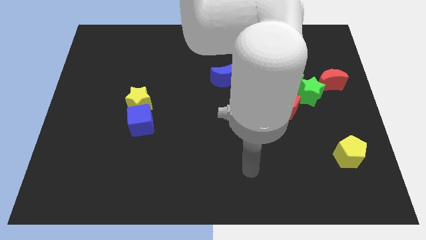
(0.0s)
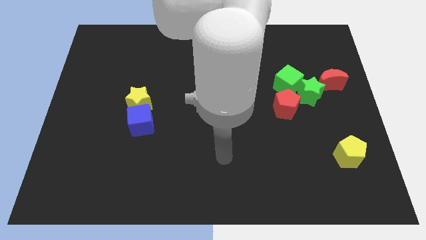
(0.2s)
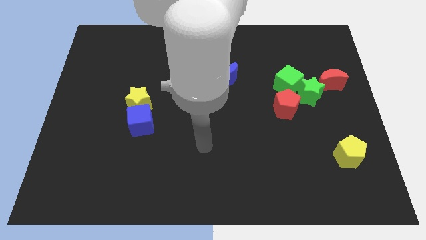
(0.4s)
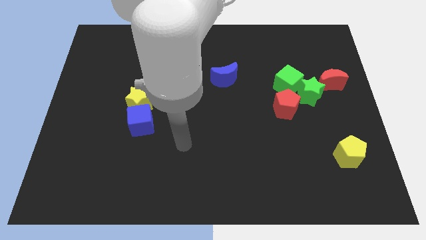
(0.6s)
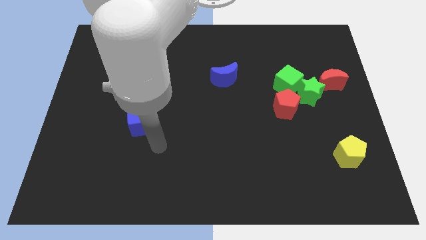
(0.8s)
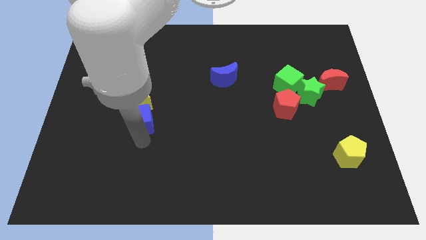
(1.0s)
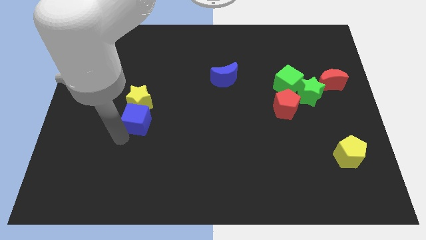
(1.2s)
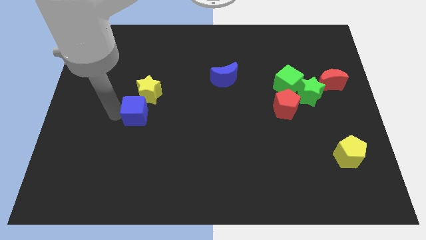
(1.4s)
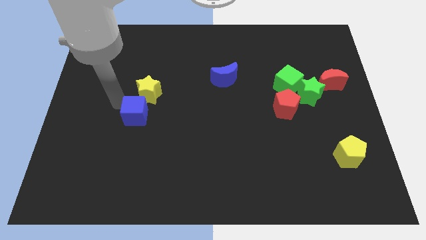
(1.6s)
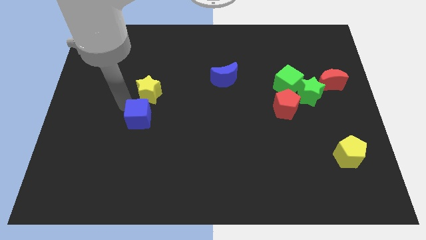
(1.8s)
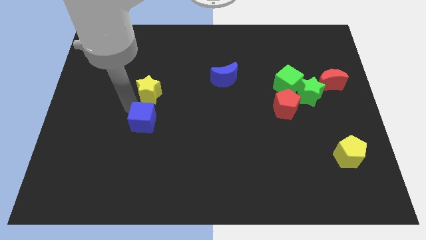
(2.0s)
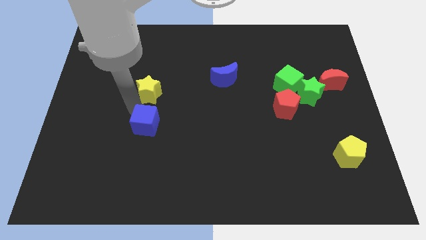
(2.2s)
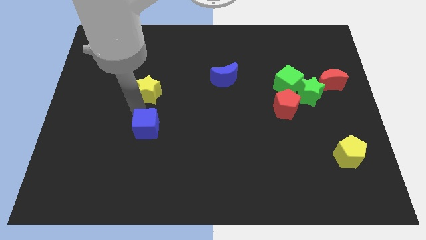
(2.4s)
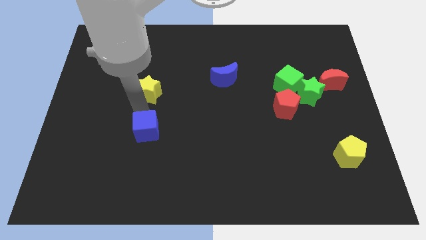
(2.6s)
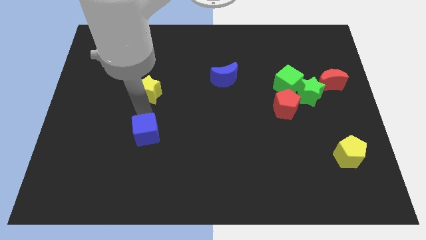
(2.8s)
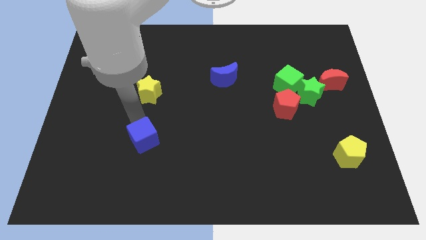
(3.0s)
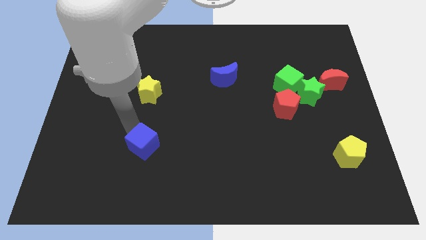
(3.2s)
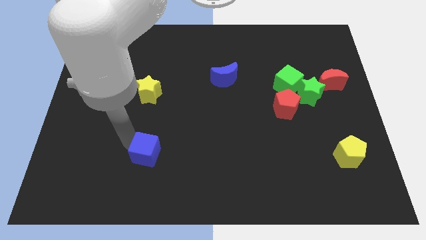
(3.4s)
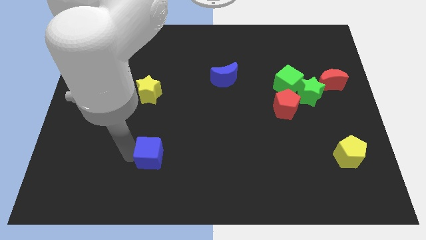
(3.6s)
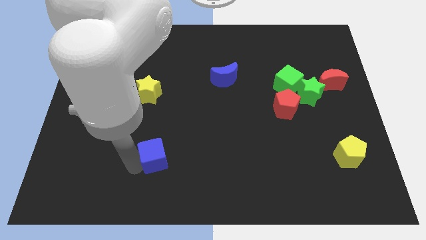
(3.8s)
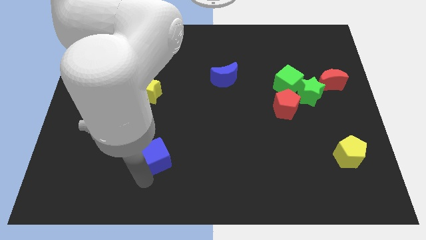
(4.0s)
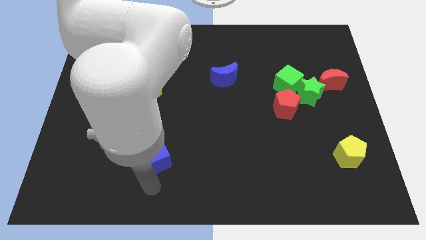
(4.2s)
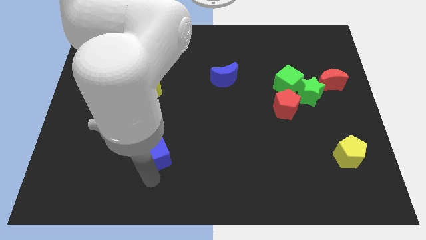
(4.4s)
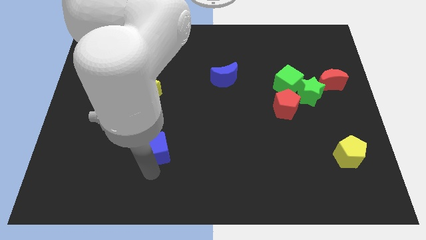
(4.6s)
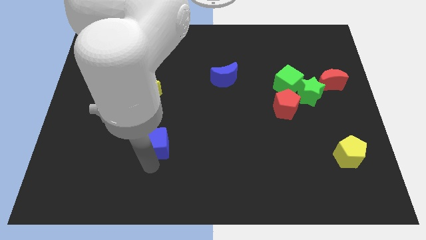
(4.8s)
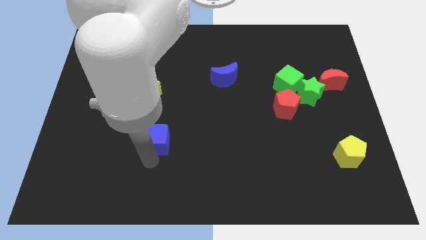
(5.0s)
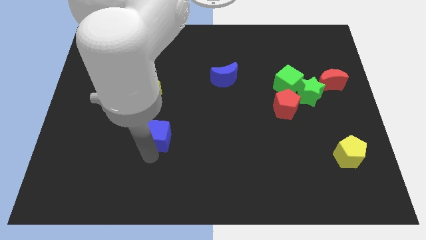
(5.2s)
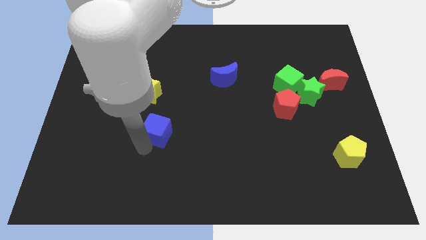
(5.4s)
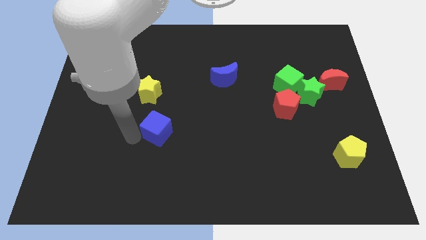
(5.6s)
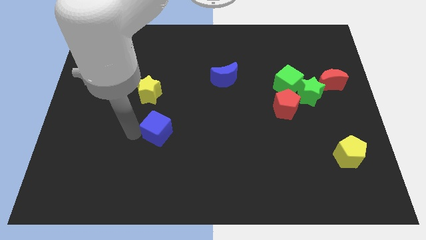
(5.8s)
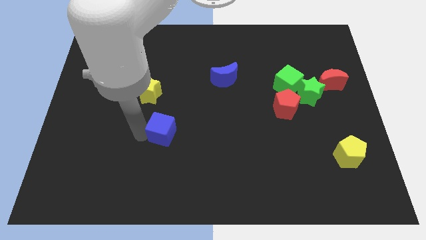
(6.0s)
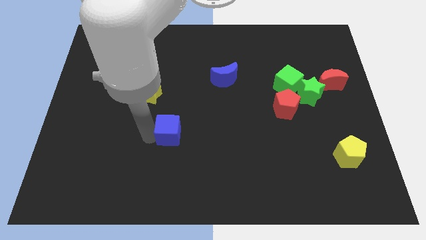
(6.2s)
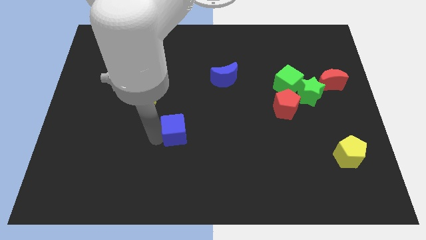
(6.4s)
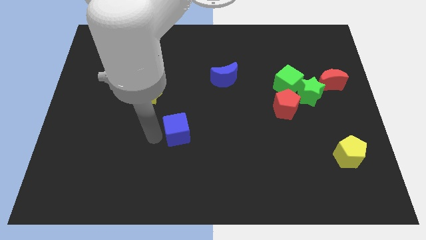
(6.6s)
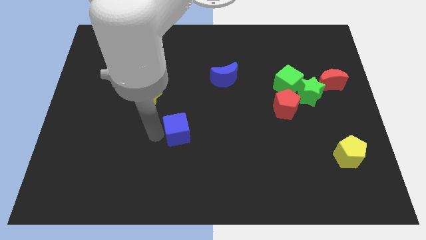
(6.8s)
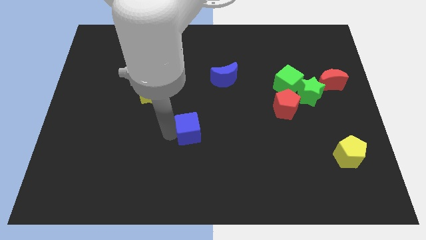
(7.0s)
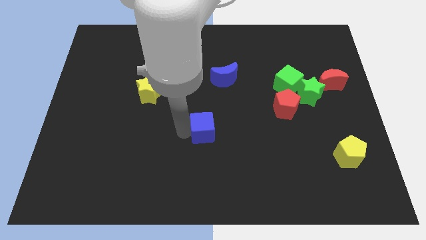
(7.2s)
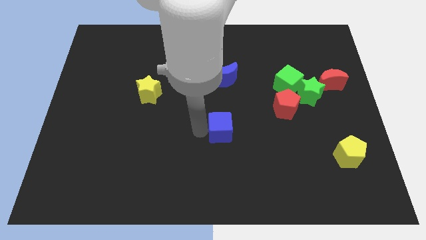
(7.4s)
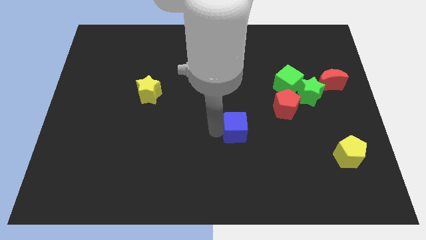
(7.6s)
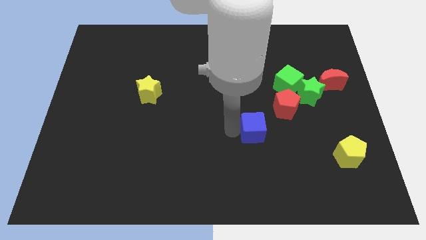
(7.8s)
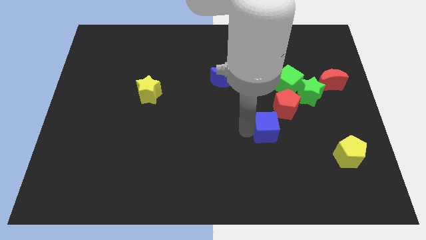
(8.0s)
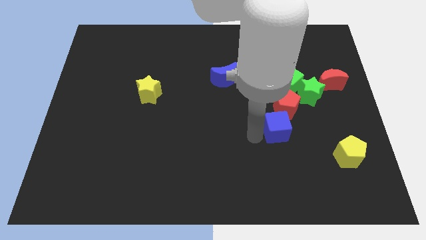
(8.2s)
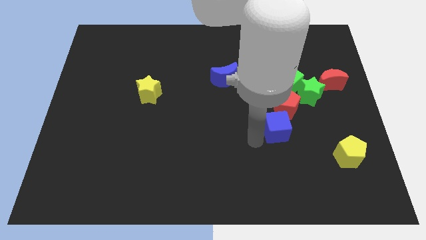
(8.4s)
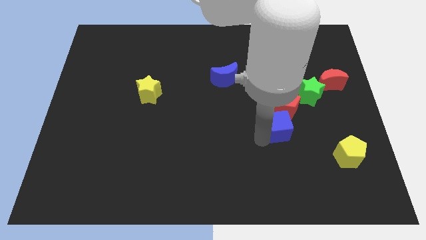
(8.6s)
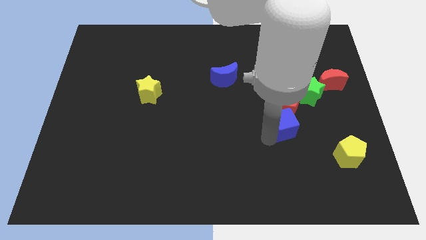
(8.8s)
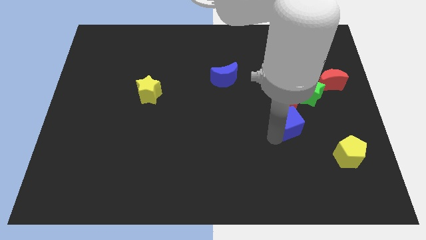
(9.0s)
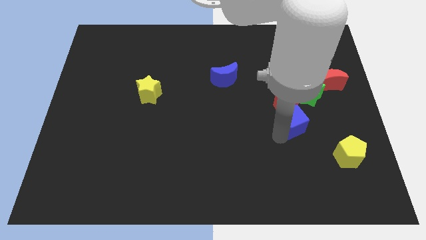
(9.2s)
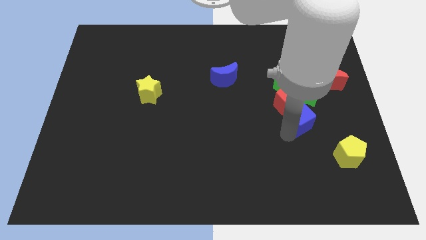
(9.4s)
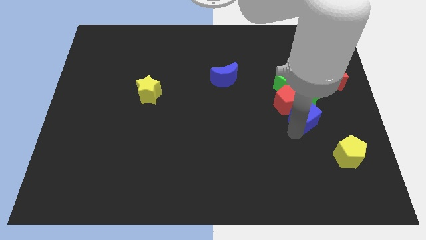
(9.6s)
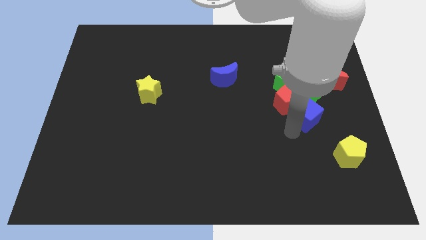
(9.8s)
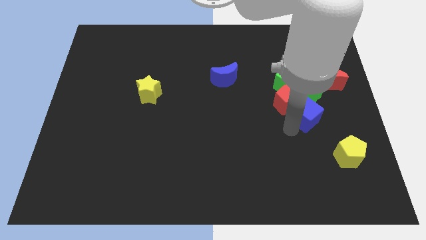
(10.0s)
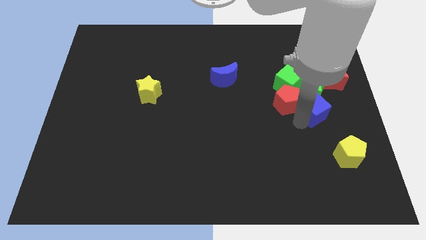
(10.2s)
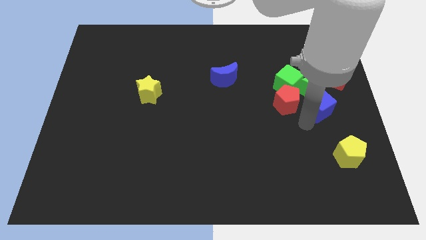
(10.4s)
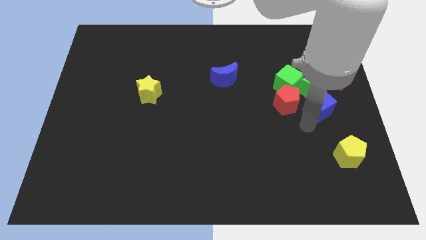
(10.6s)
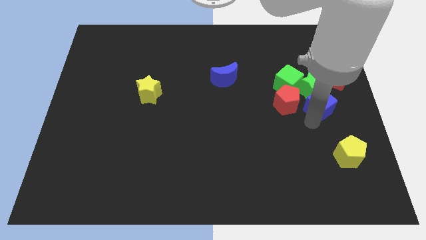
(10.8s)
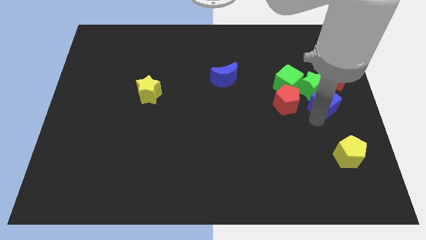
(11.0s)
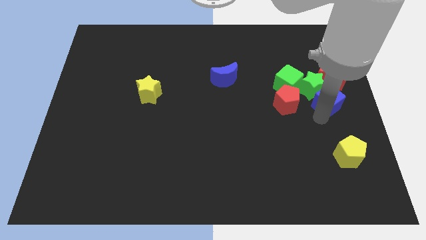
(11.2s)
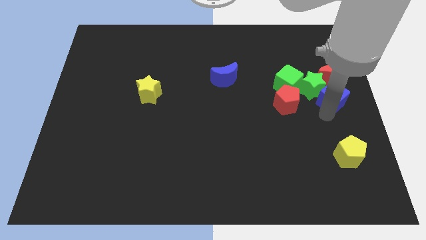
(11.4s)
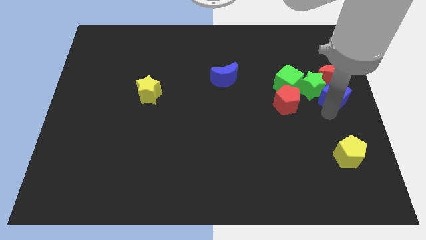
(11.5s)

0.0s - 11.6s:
move the blue cube next to the red moon

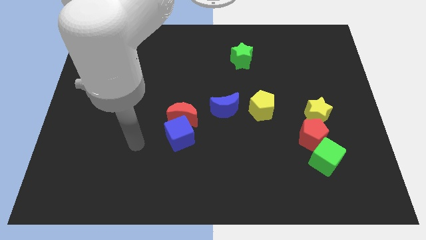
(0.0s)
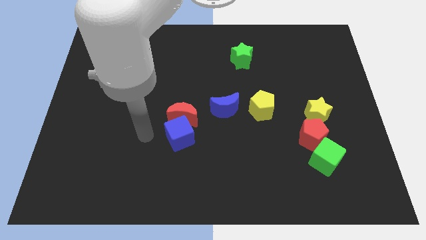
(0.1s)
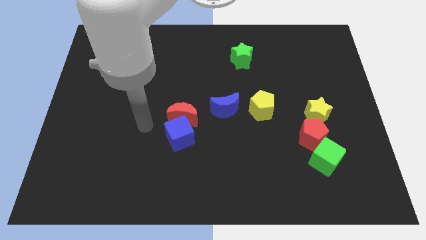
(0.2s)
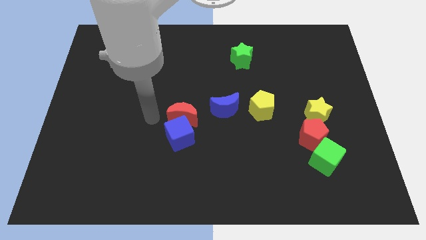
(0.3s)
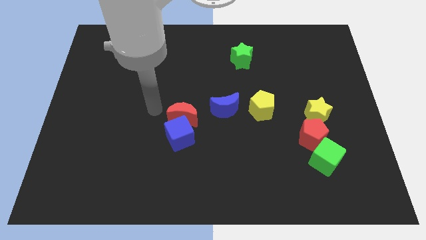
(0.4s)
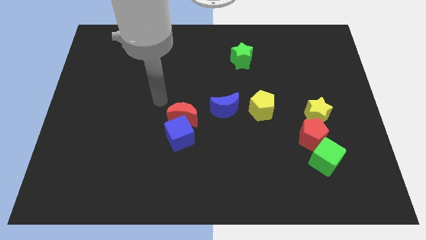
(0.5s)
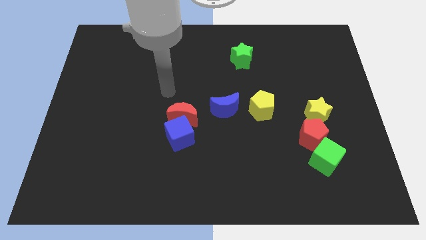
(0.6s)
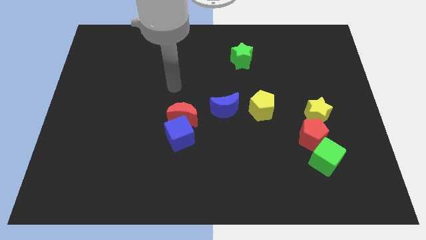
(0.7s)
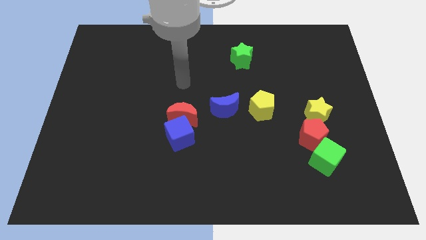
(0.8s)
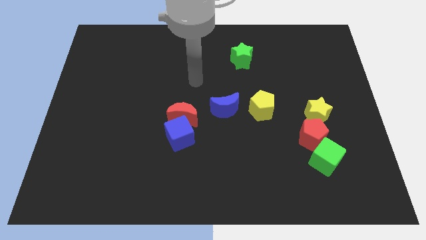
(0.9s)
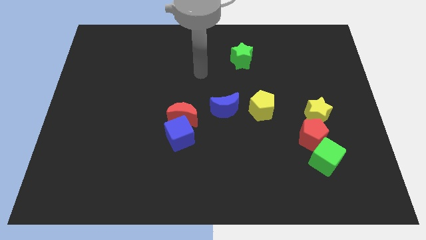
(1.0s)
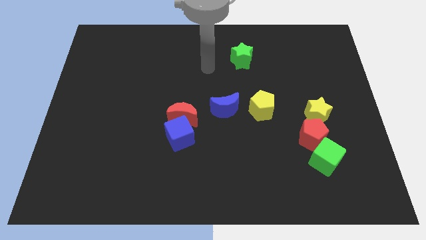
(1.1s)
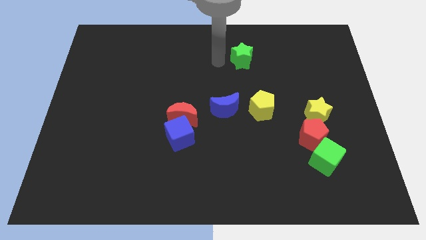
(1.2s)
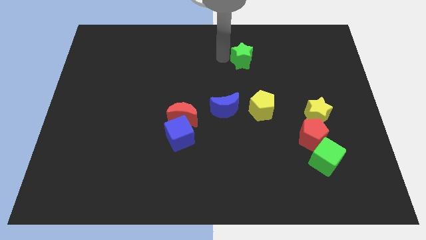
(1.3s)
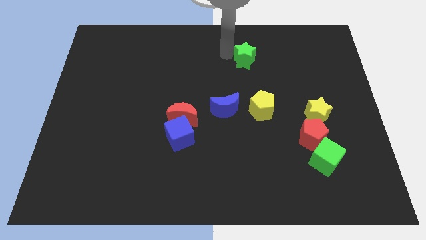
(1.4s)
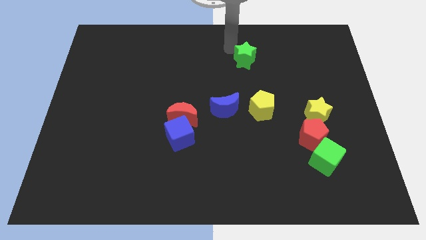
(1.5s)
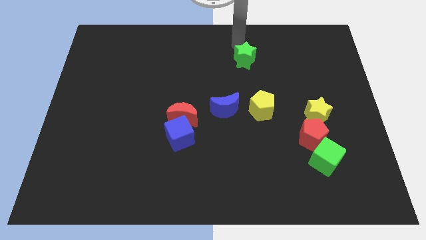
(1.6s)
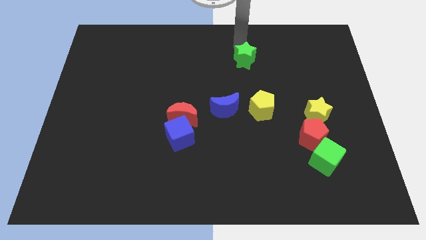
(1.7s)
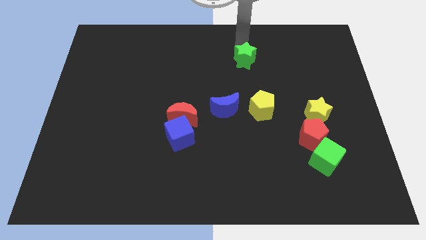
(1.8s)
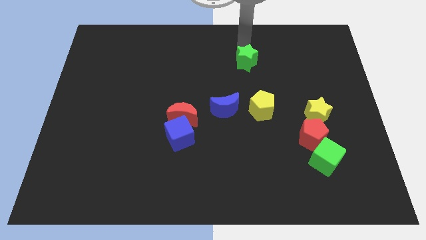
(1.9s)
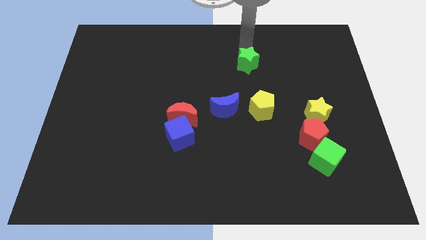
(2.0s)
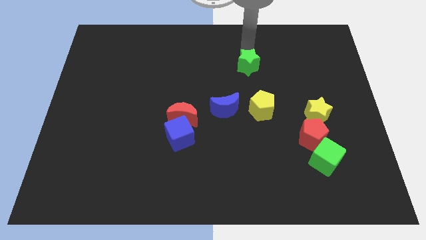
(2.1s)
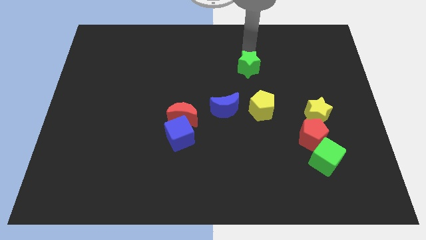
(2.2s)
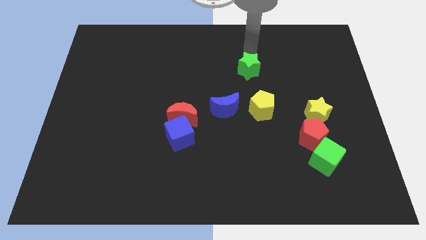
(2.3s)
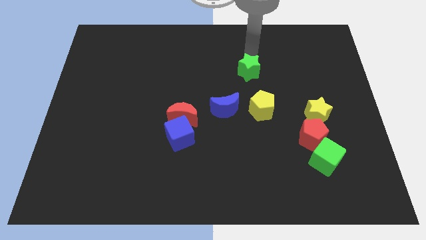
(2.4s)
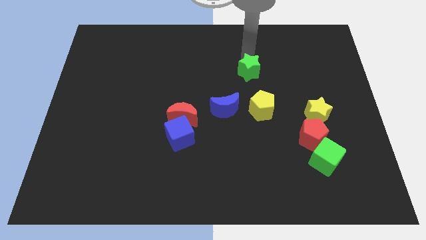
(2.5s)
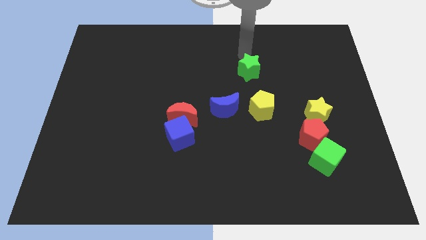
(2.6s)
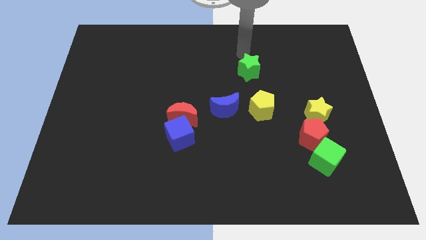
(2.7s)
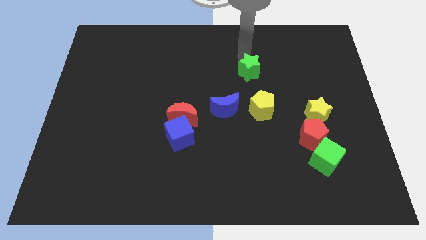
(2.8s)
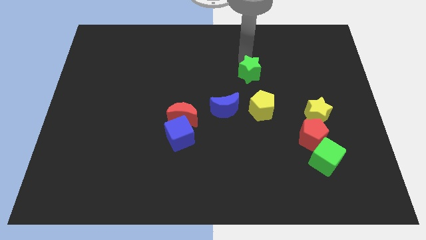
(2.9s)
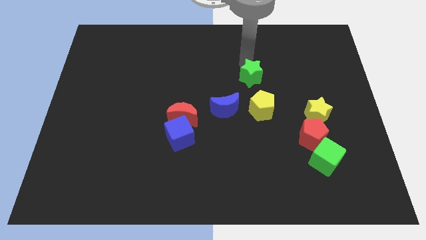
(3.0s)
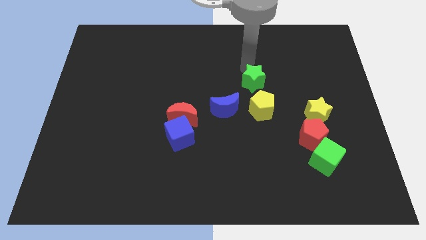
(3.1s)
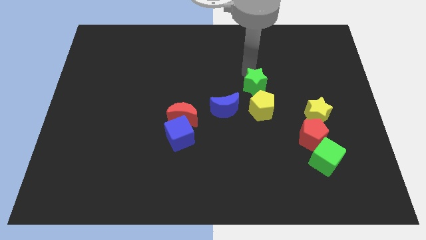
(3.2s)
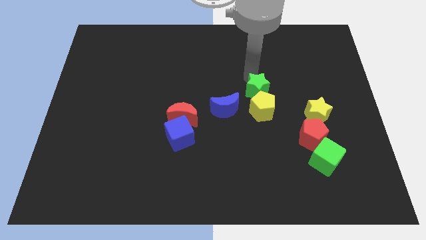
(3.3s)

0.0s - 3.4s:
move the green star towards the yellow pentagon
